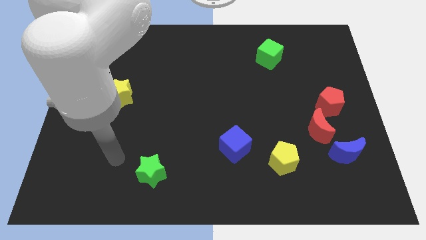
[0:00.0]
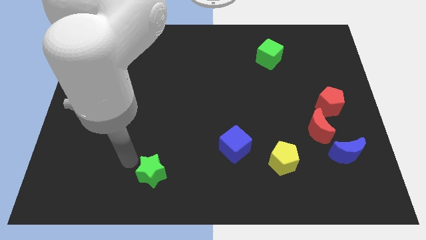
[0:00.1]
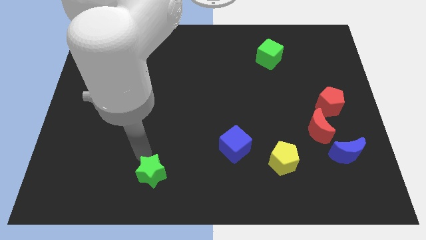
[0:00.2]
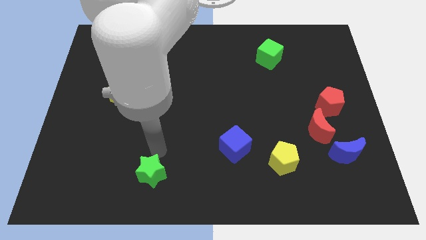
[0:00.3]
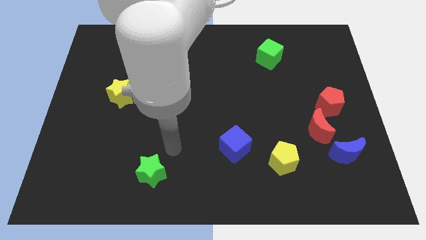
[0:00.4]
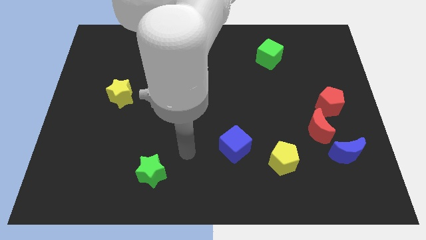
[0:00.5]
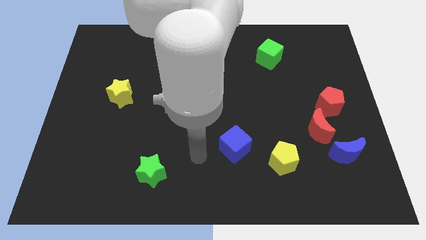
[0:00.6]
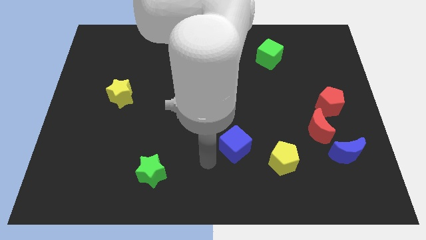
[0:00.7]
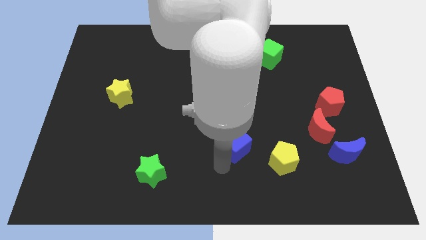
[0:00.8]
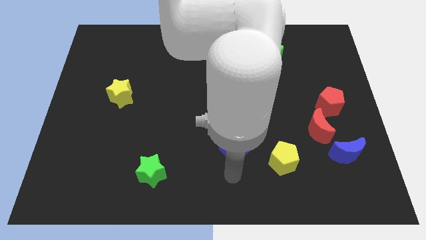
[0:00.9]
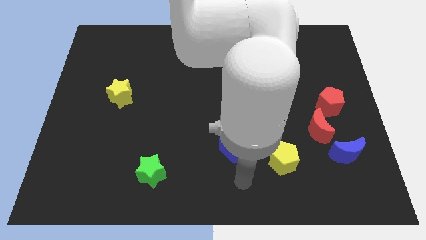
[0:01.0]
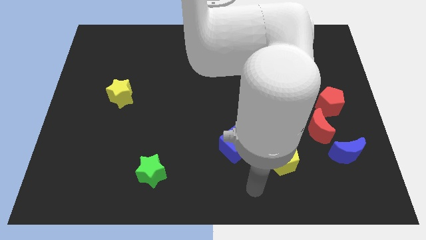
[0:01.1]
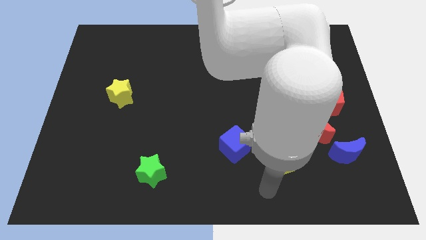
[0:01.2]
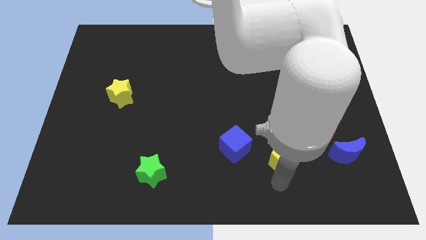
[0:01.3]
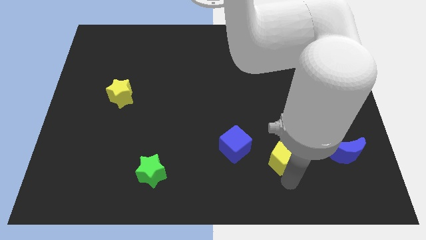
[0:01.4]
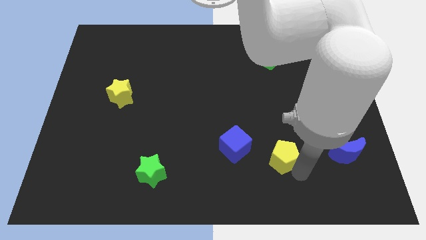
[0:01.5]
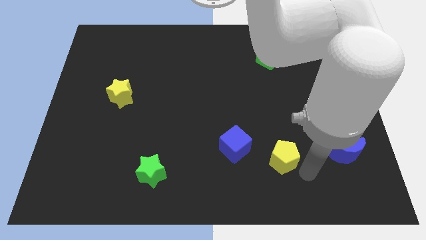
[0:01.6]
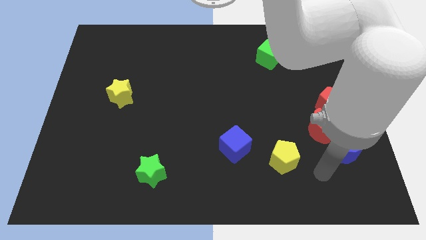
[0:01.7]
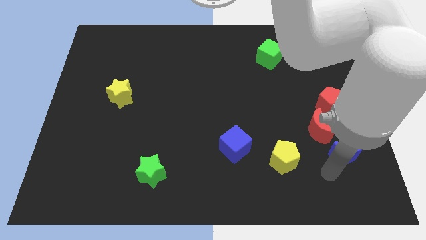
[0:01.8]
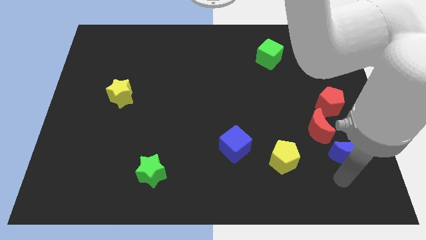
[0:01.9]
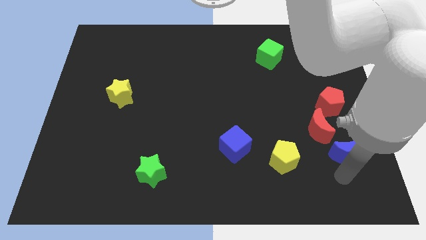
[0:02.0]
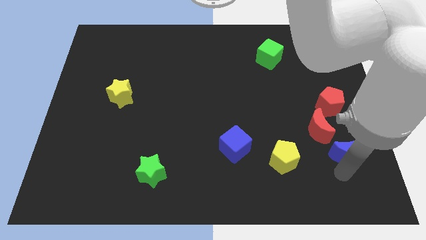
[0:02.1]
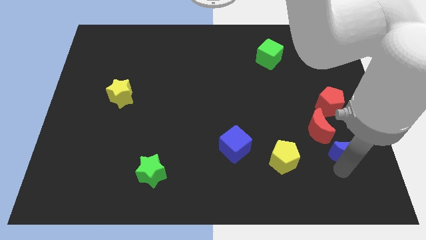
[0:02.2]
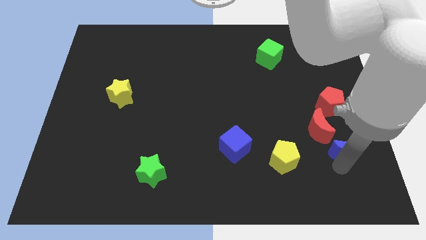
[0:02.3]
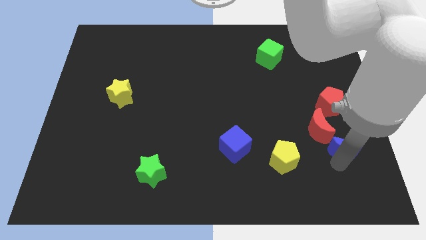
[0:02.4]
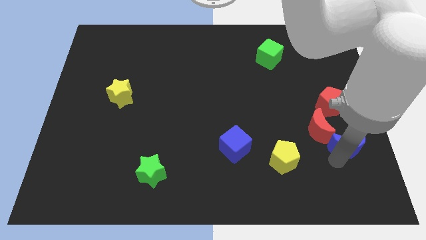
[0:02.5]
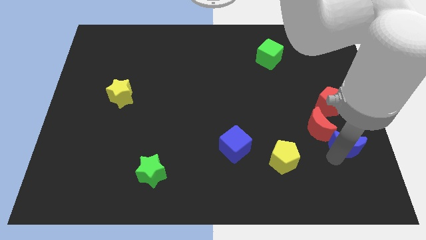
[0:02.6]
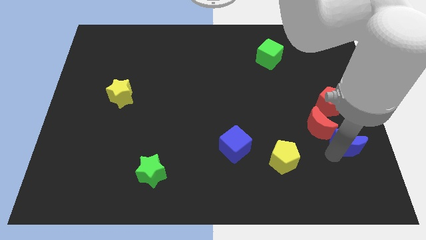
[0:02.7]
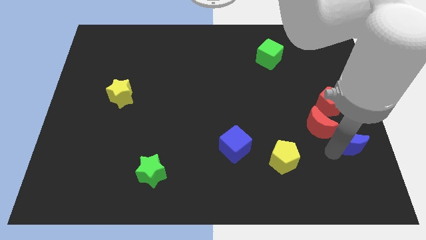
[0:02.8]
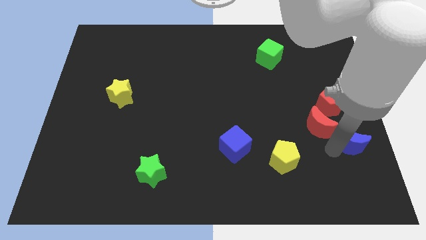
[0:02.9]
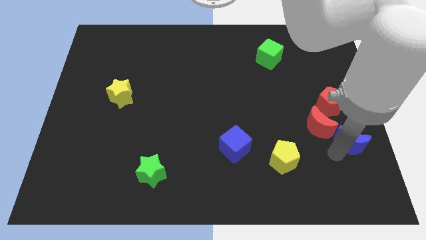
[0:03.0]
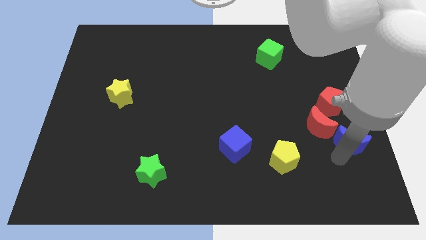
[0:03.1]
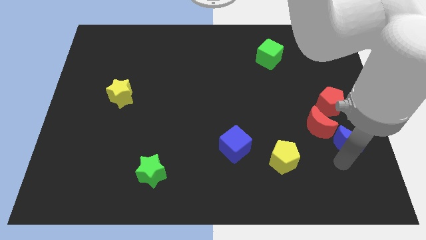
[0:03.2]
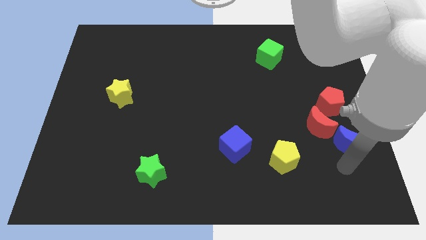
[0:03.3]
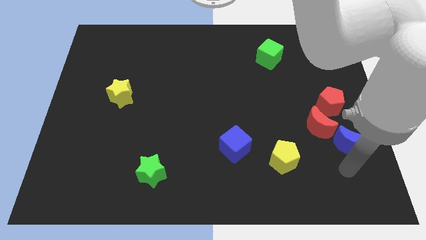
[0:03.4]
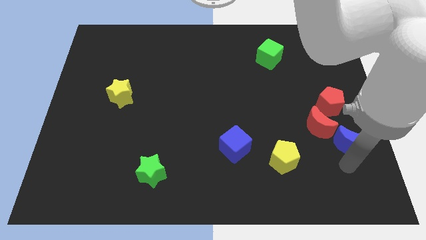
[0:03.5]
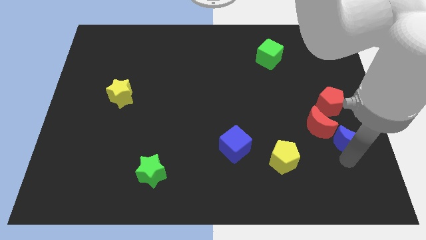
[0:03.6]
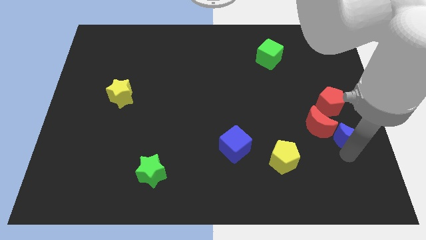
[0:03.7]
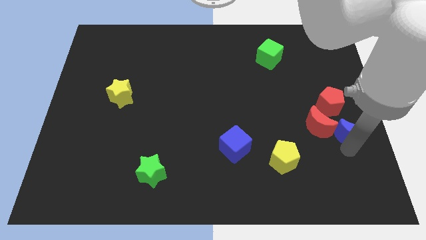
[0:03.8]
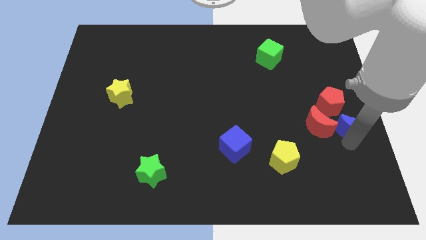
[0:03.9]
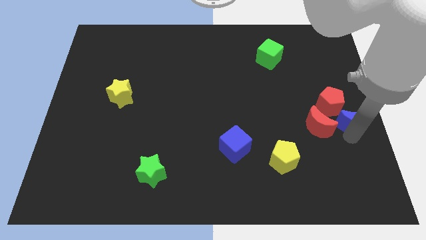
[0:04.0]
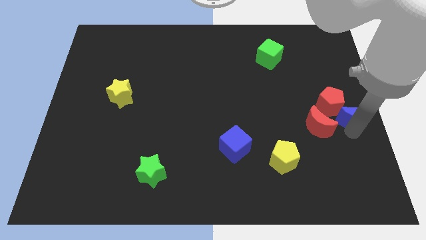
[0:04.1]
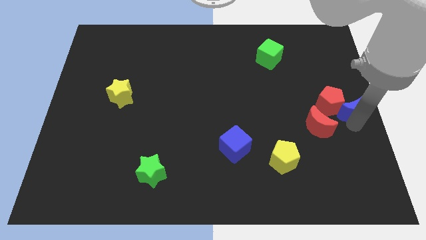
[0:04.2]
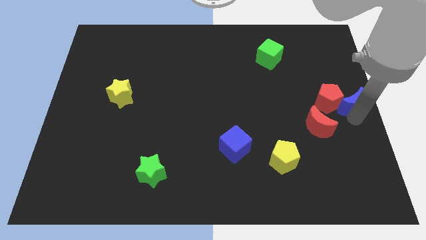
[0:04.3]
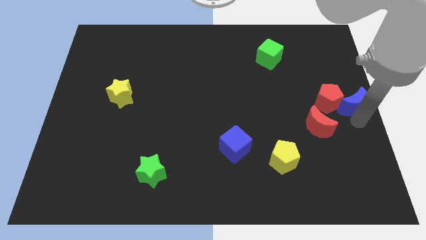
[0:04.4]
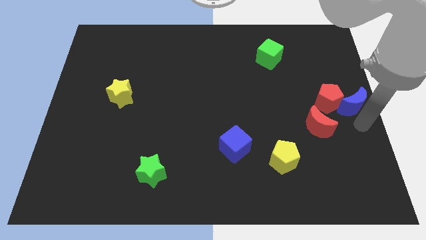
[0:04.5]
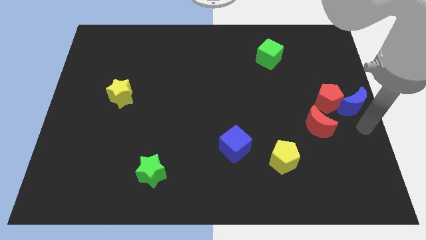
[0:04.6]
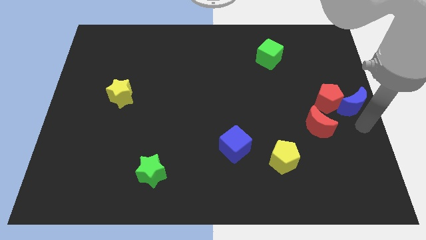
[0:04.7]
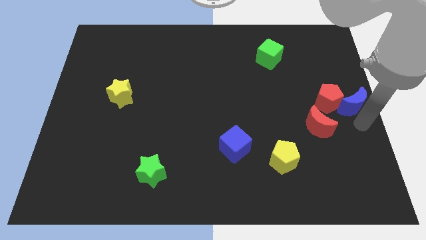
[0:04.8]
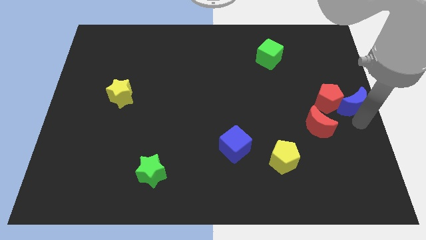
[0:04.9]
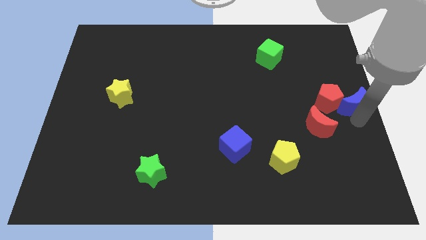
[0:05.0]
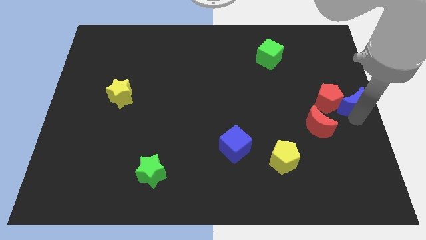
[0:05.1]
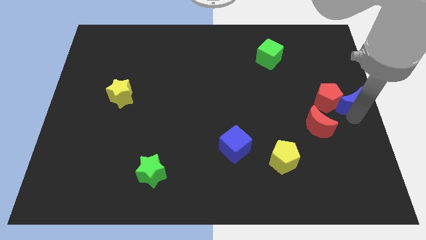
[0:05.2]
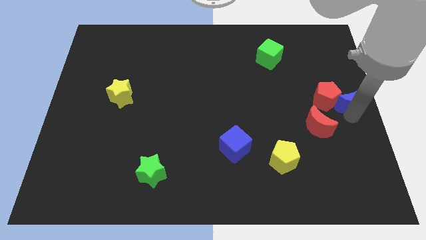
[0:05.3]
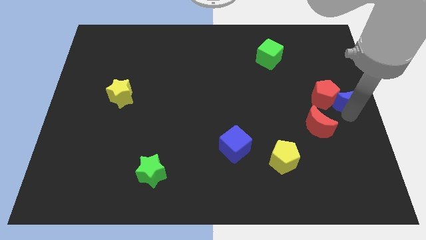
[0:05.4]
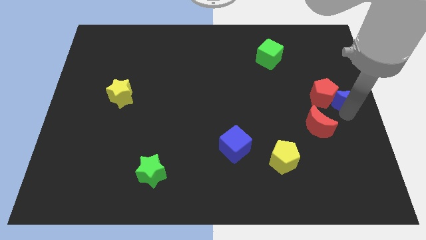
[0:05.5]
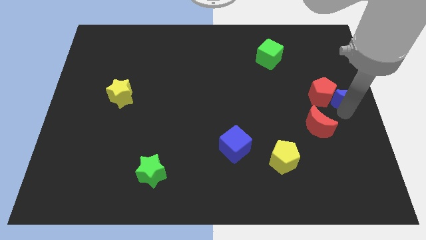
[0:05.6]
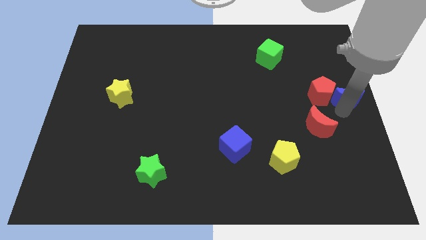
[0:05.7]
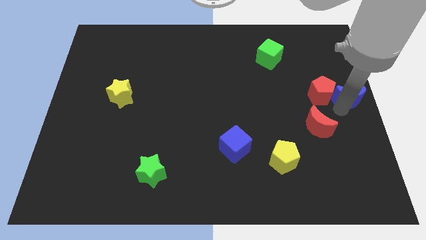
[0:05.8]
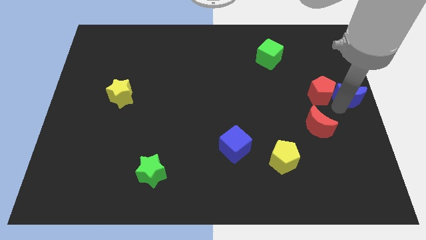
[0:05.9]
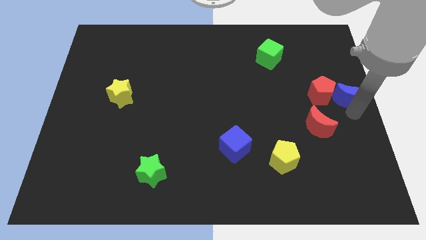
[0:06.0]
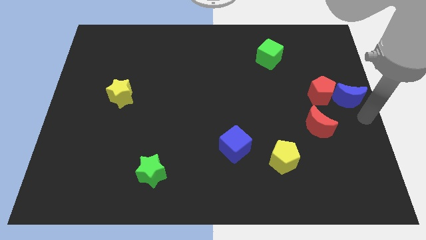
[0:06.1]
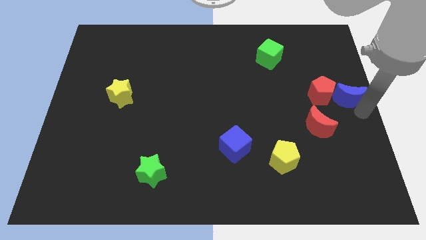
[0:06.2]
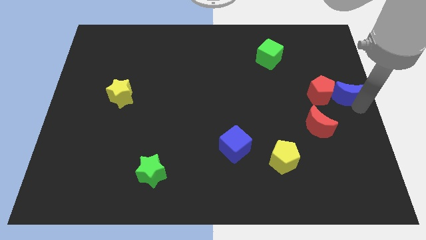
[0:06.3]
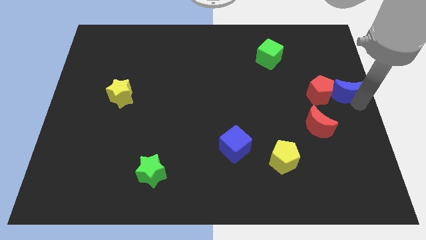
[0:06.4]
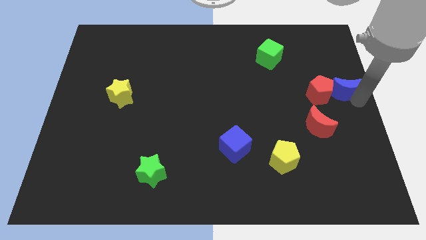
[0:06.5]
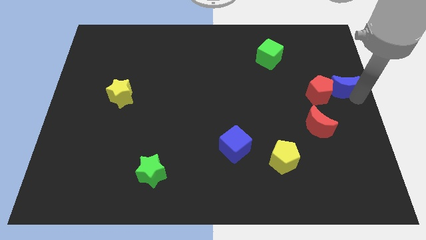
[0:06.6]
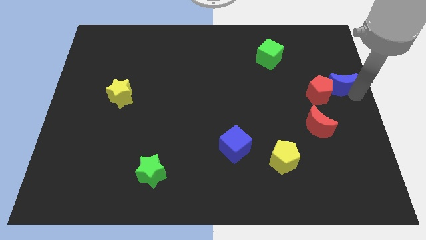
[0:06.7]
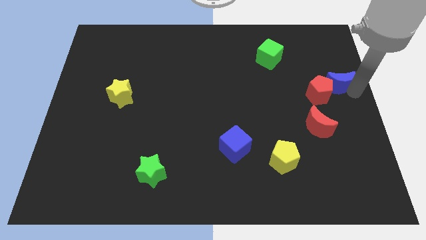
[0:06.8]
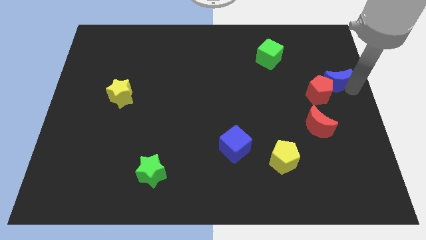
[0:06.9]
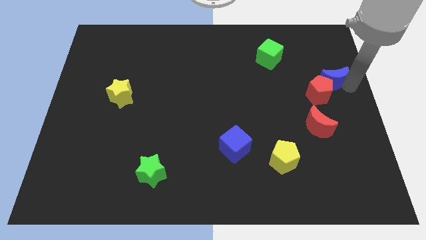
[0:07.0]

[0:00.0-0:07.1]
push the blue moon above the red pentagon

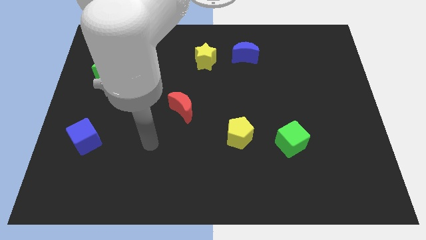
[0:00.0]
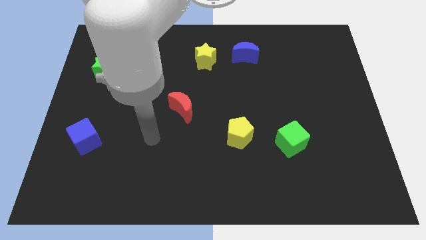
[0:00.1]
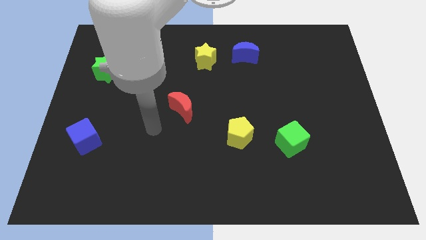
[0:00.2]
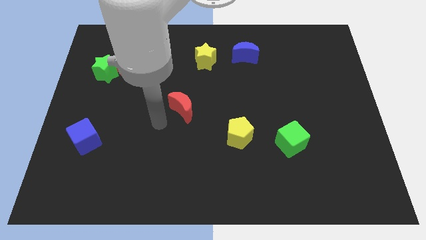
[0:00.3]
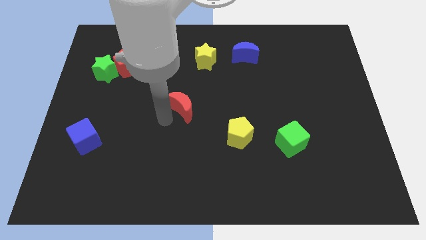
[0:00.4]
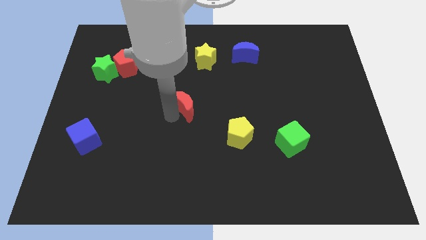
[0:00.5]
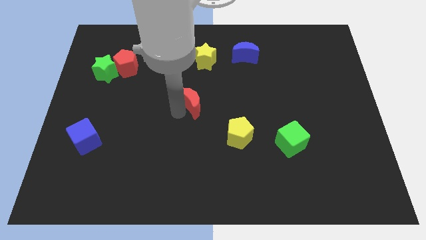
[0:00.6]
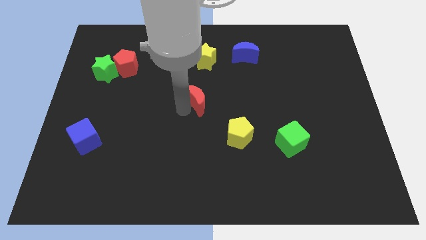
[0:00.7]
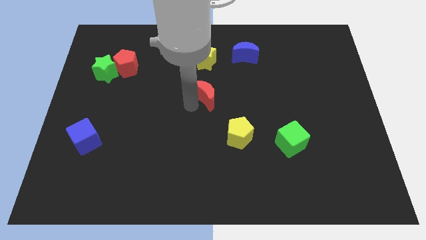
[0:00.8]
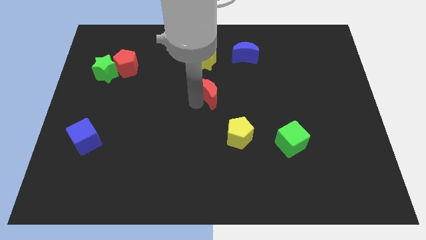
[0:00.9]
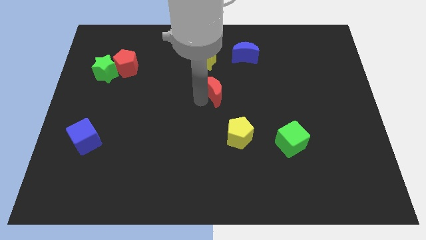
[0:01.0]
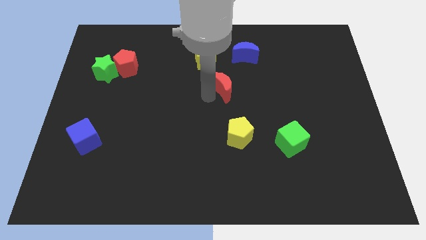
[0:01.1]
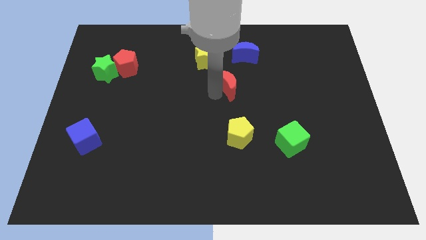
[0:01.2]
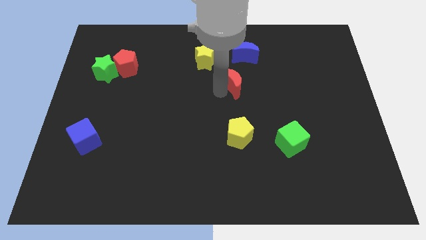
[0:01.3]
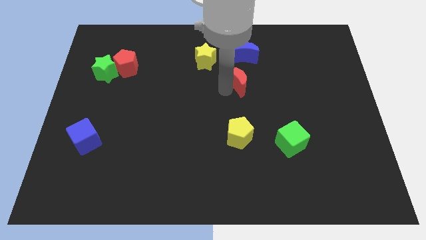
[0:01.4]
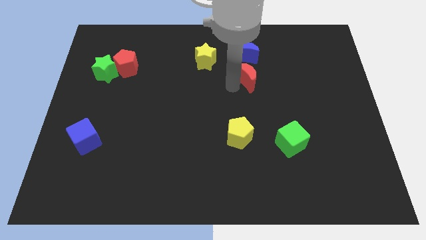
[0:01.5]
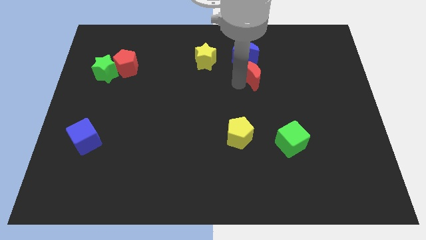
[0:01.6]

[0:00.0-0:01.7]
put the red moon to the bottom right side of the blue moon
